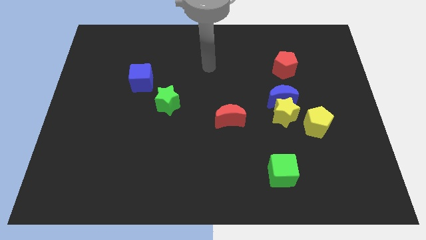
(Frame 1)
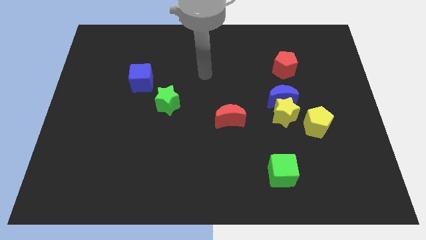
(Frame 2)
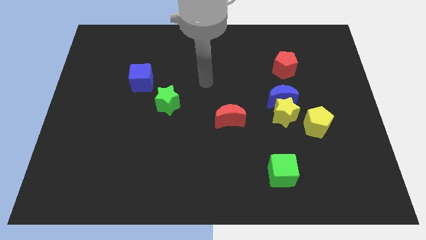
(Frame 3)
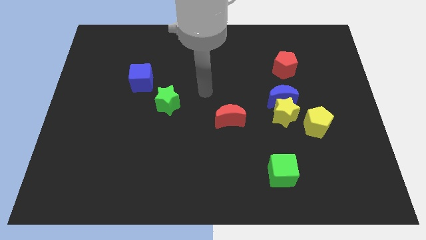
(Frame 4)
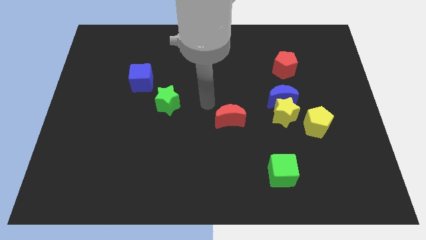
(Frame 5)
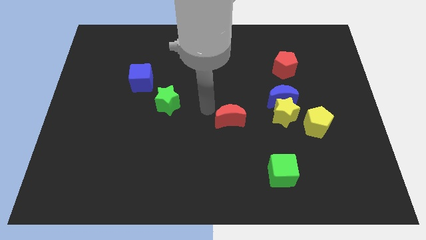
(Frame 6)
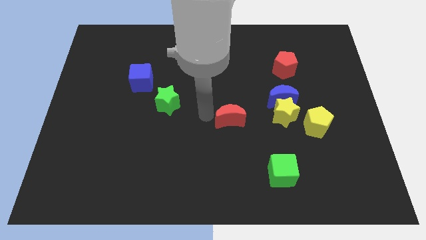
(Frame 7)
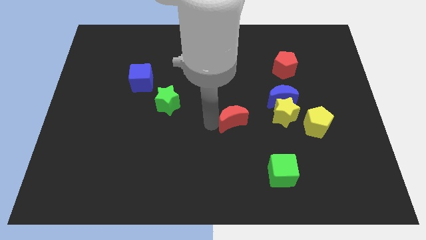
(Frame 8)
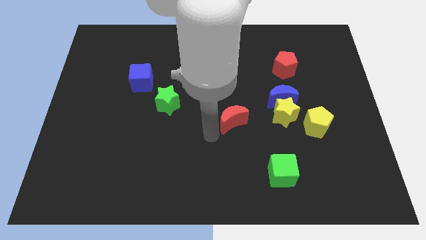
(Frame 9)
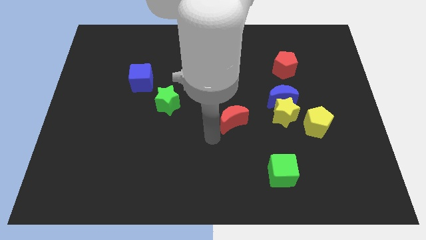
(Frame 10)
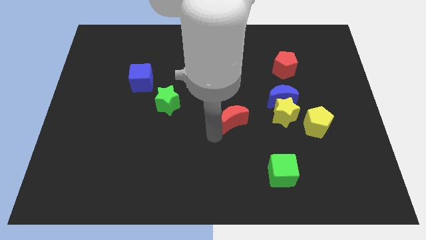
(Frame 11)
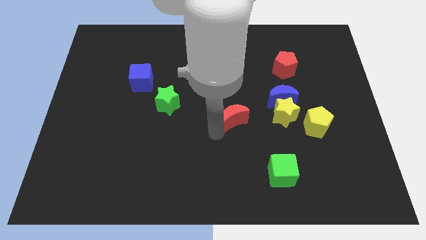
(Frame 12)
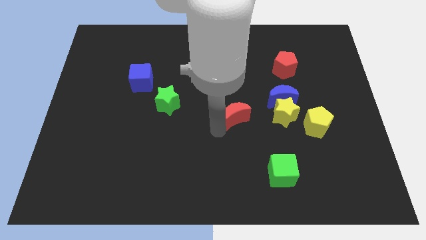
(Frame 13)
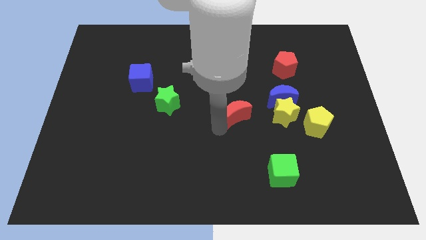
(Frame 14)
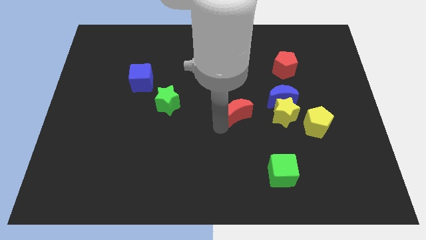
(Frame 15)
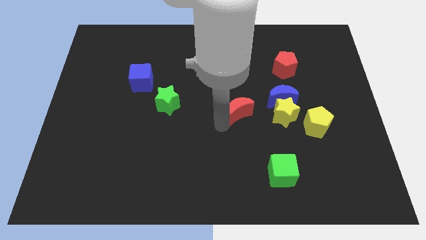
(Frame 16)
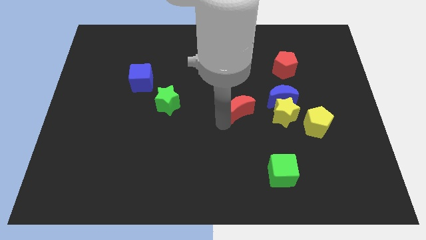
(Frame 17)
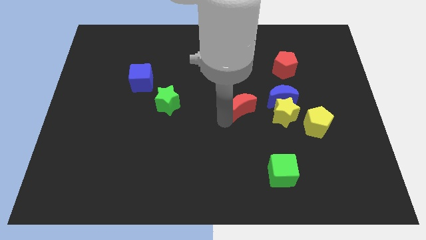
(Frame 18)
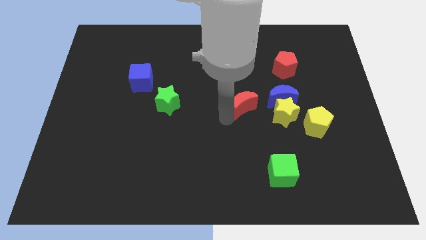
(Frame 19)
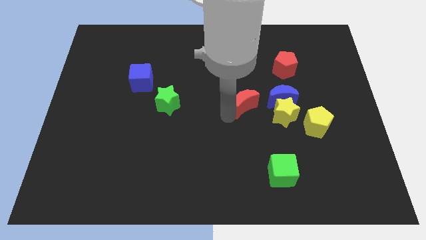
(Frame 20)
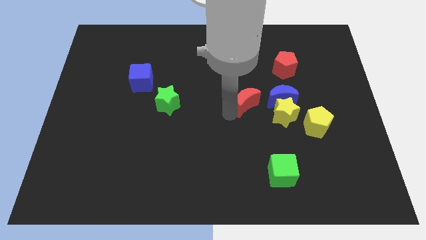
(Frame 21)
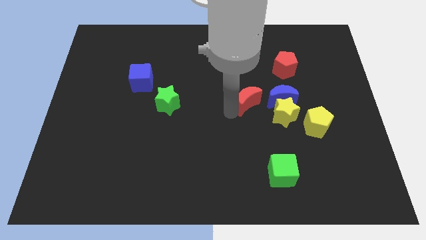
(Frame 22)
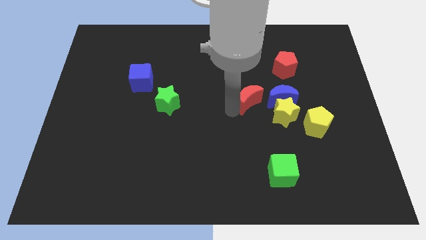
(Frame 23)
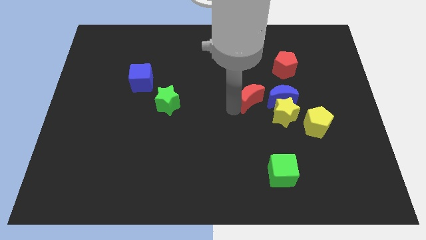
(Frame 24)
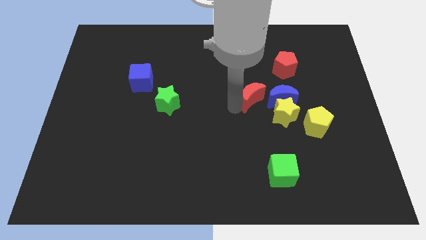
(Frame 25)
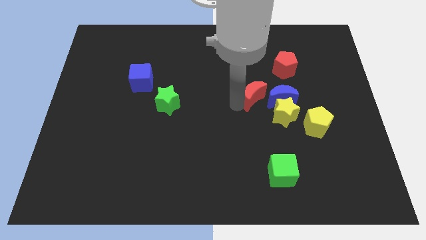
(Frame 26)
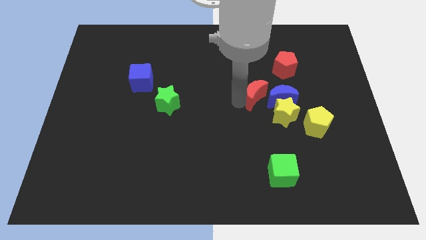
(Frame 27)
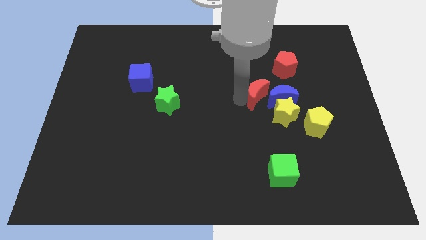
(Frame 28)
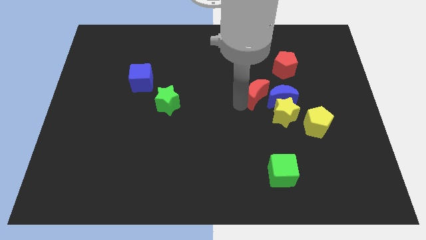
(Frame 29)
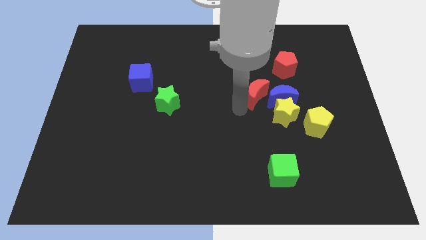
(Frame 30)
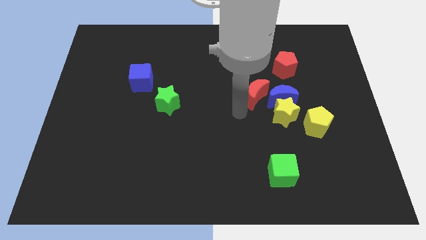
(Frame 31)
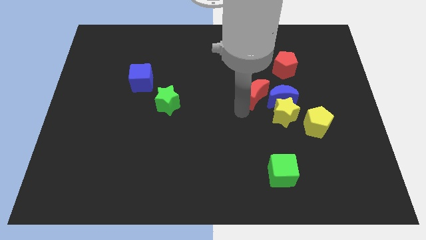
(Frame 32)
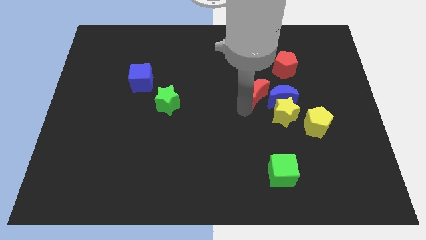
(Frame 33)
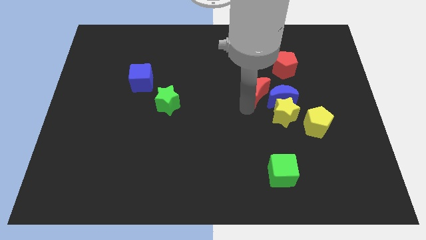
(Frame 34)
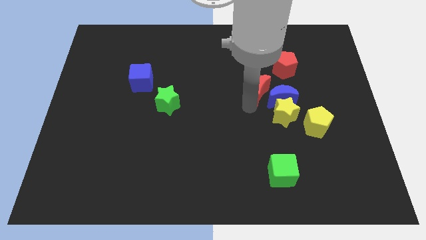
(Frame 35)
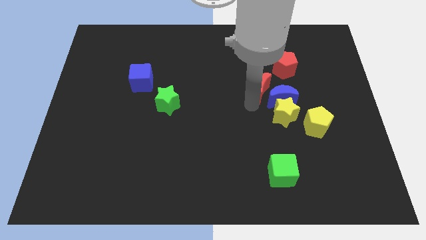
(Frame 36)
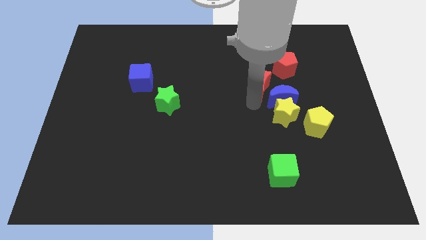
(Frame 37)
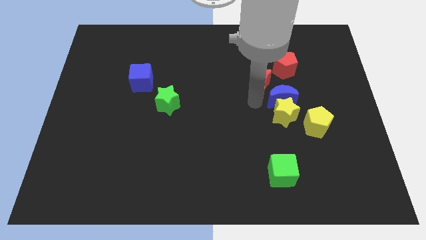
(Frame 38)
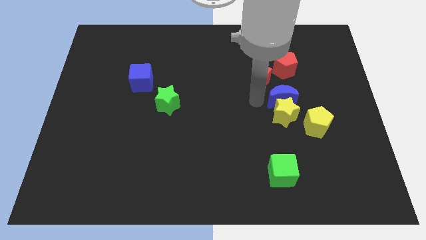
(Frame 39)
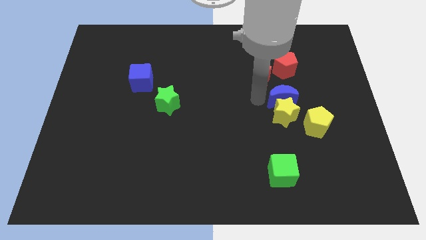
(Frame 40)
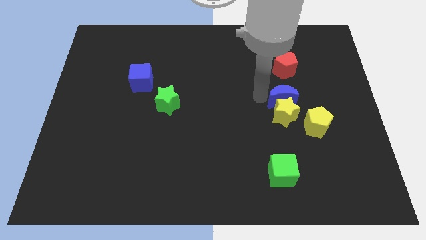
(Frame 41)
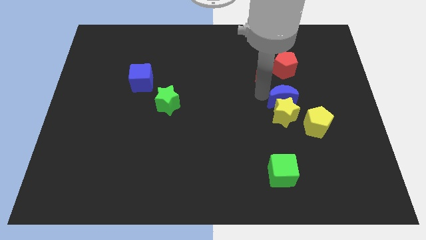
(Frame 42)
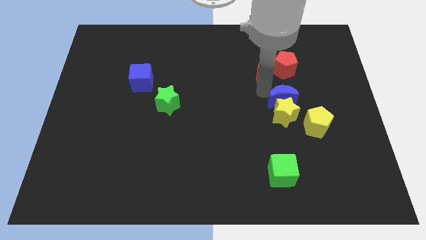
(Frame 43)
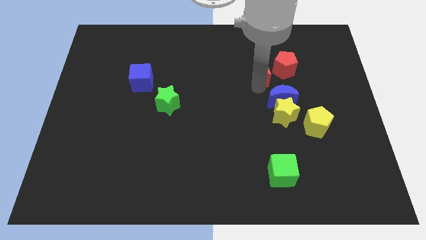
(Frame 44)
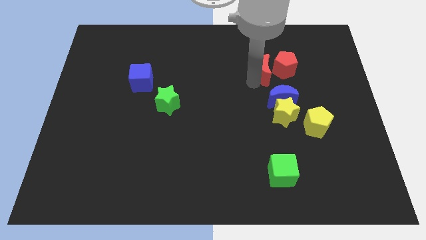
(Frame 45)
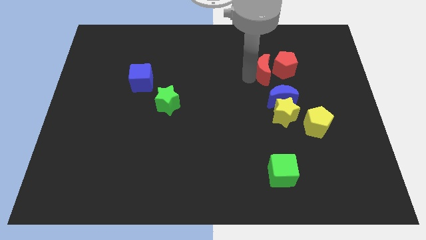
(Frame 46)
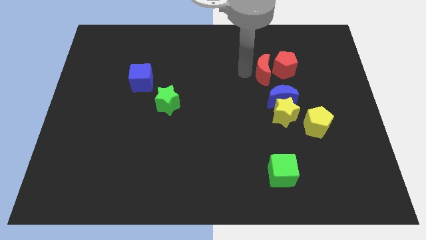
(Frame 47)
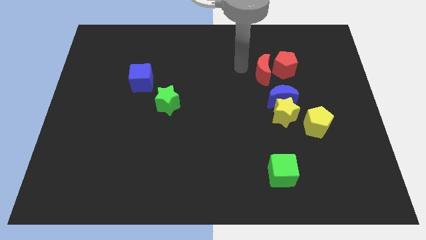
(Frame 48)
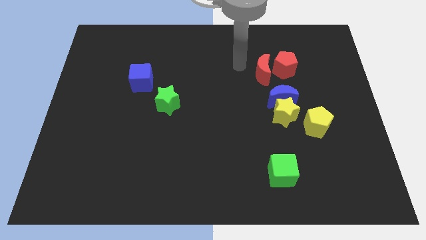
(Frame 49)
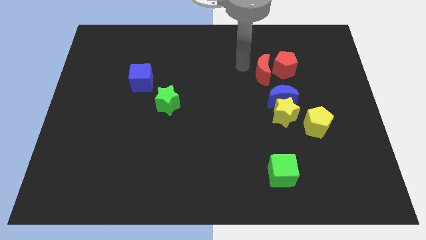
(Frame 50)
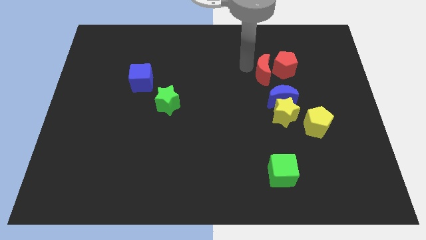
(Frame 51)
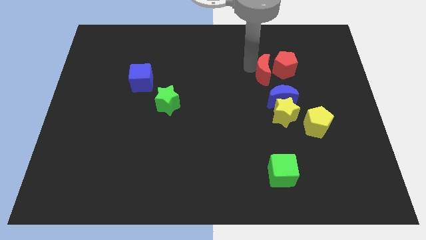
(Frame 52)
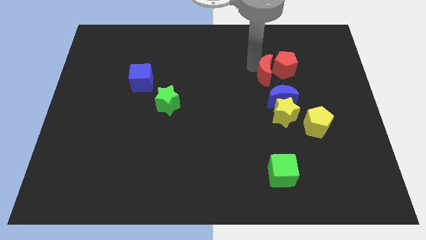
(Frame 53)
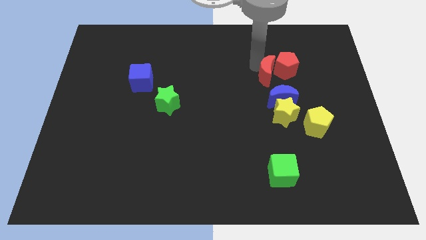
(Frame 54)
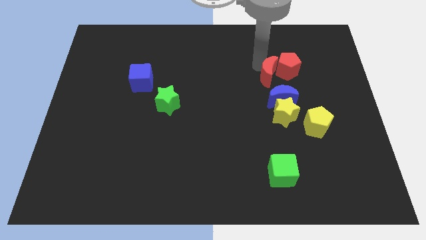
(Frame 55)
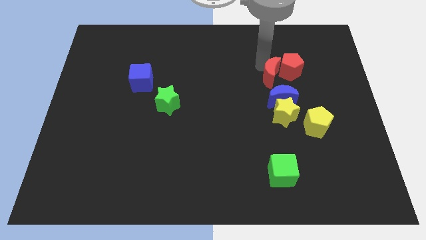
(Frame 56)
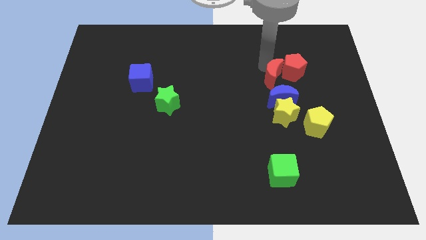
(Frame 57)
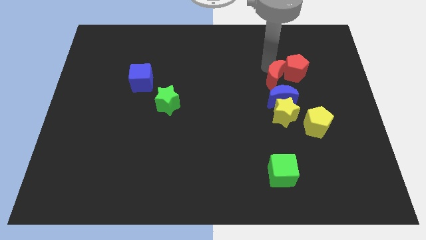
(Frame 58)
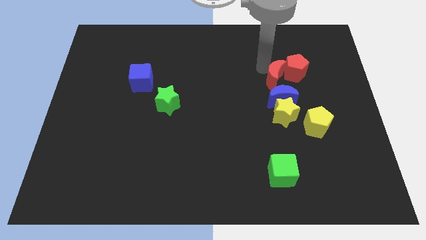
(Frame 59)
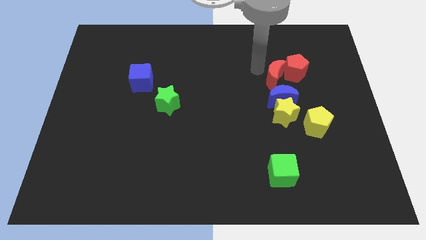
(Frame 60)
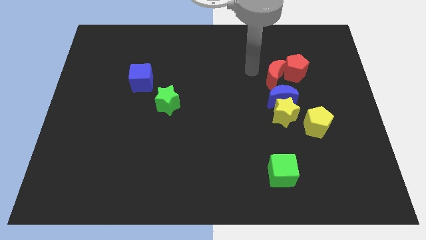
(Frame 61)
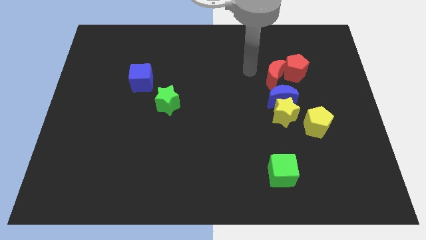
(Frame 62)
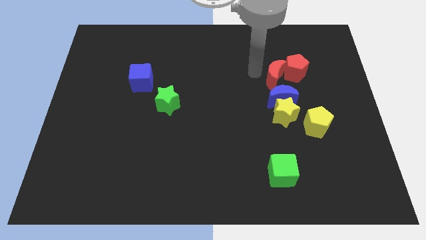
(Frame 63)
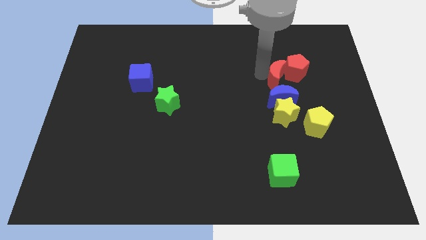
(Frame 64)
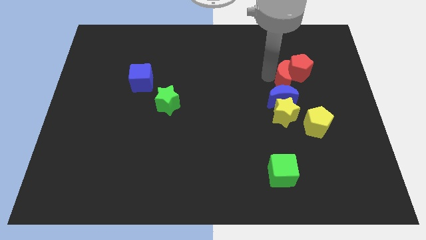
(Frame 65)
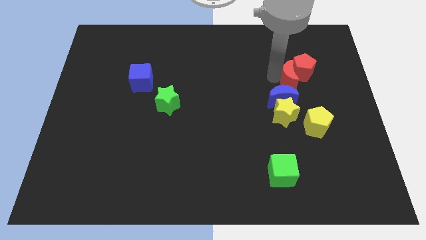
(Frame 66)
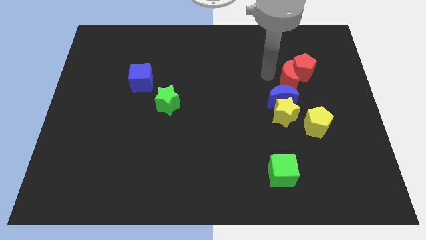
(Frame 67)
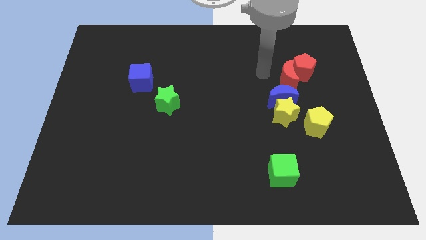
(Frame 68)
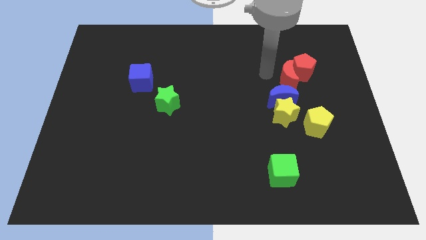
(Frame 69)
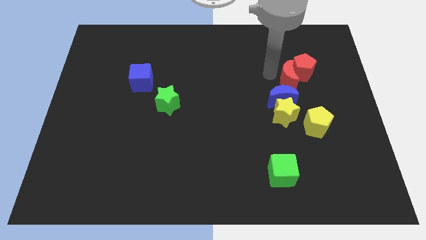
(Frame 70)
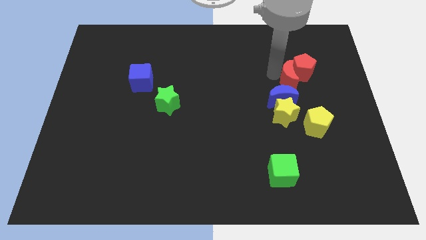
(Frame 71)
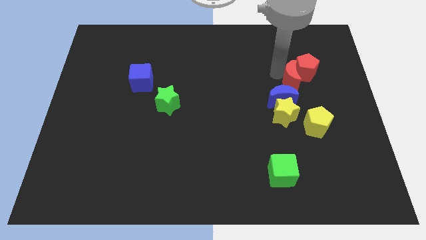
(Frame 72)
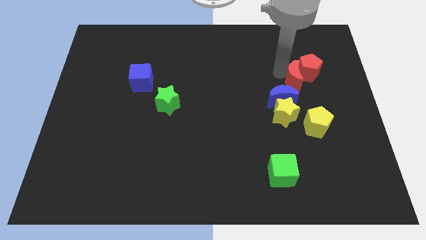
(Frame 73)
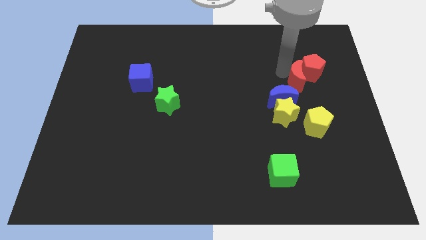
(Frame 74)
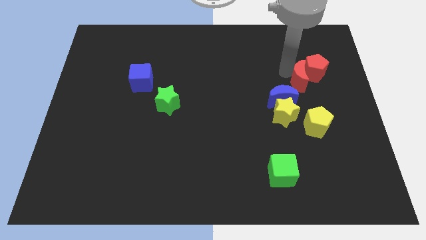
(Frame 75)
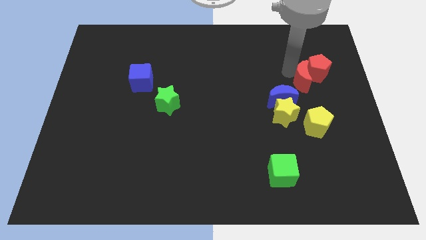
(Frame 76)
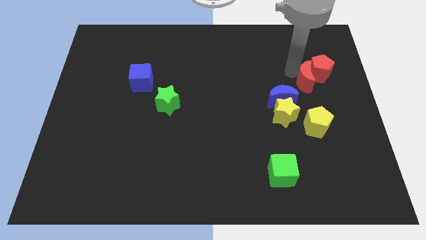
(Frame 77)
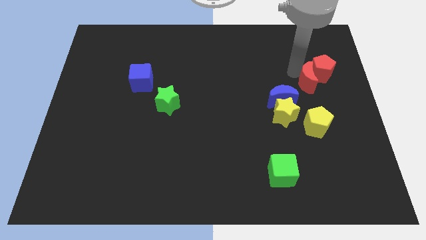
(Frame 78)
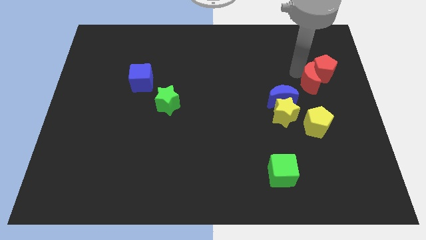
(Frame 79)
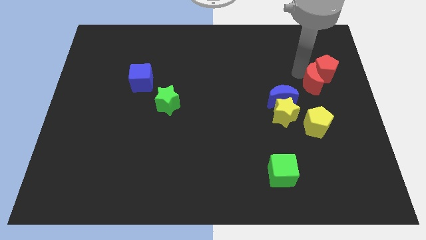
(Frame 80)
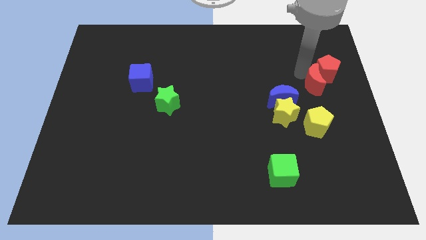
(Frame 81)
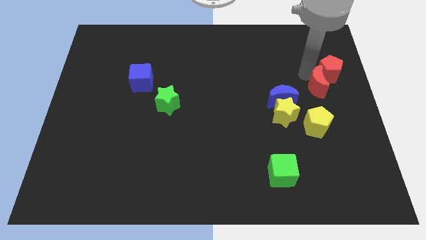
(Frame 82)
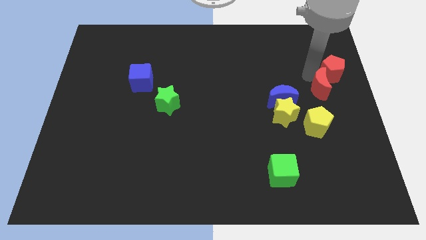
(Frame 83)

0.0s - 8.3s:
put the red moon to the right side
